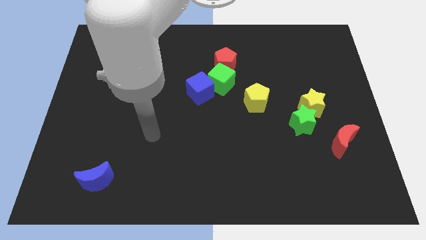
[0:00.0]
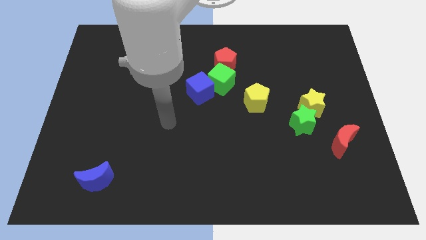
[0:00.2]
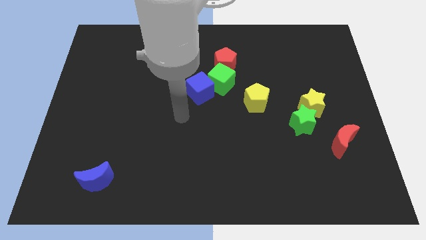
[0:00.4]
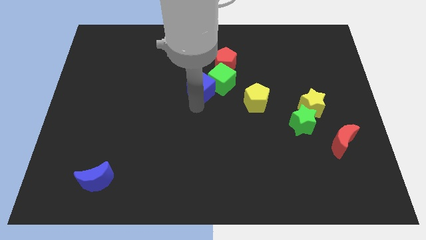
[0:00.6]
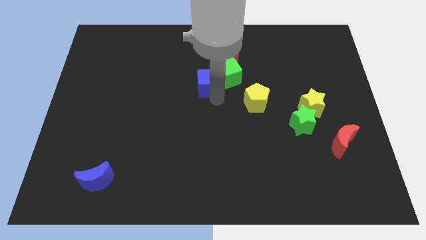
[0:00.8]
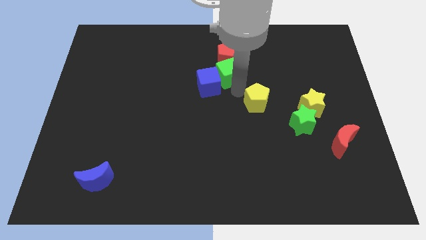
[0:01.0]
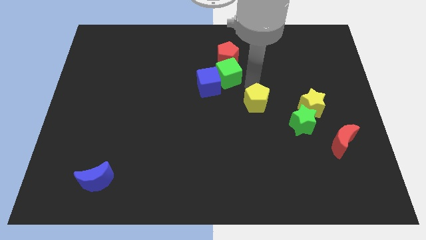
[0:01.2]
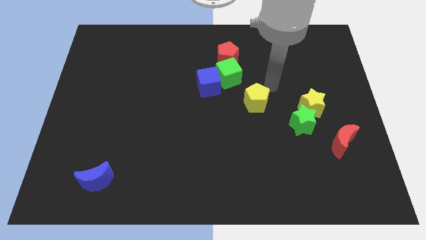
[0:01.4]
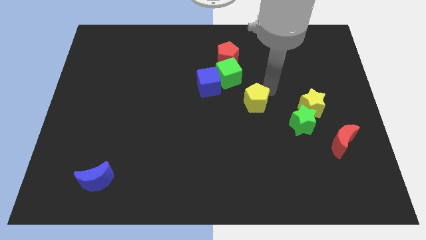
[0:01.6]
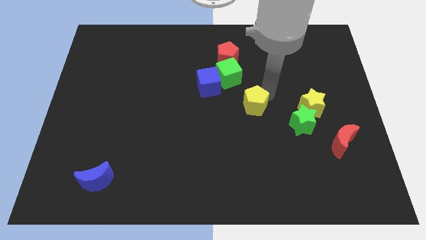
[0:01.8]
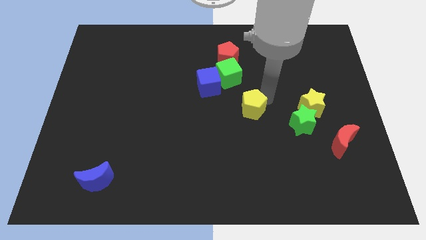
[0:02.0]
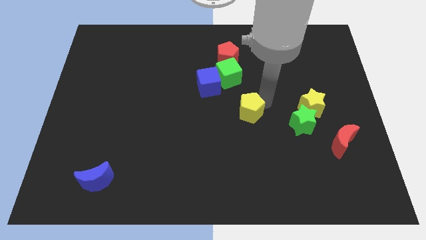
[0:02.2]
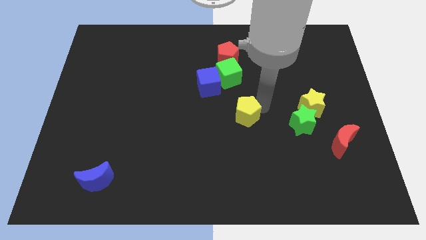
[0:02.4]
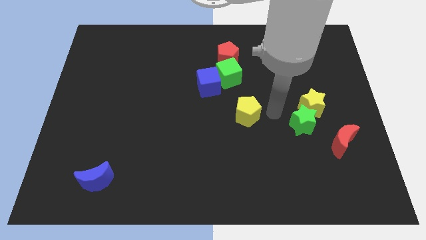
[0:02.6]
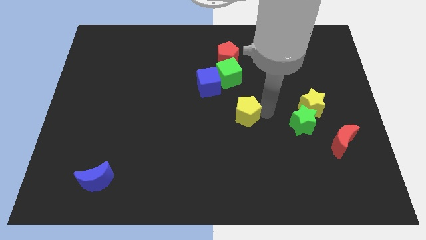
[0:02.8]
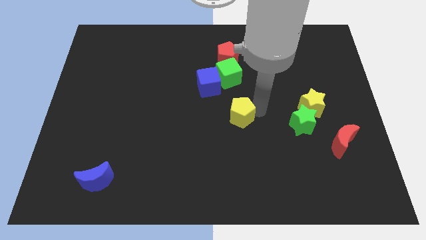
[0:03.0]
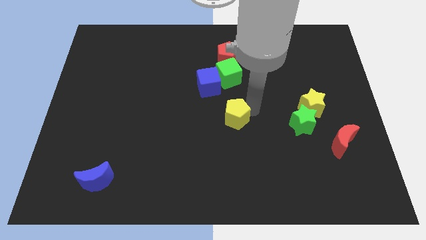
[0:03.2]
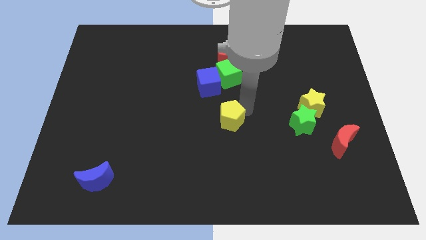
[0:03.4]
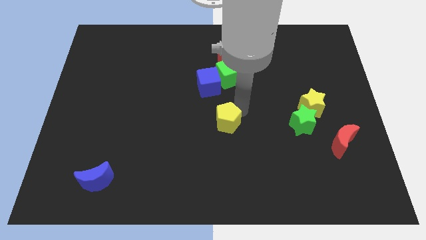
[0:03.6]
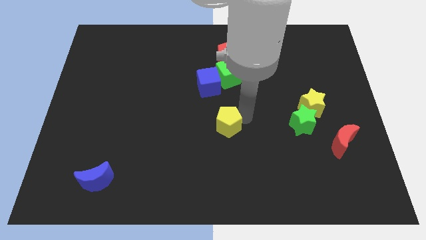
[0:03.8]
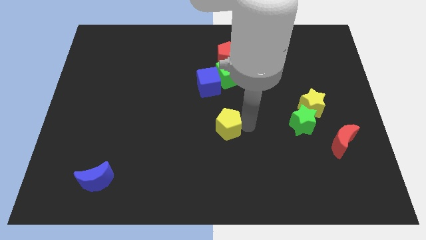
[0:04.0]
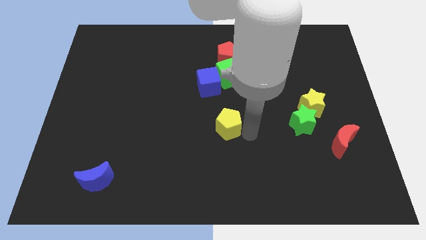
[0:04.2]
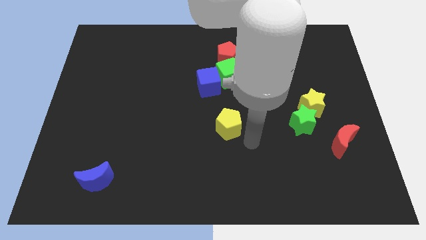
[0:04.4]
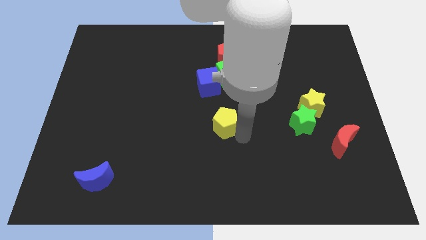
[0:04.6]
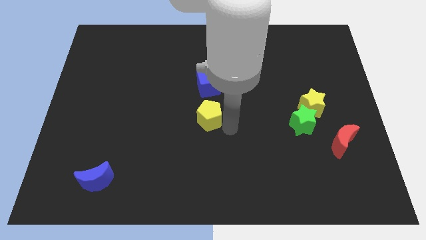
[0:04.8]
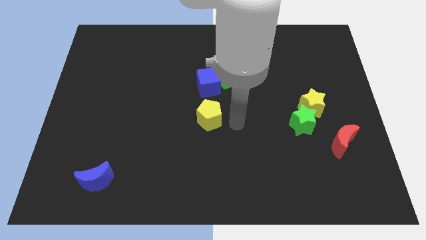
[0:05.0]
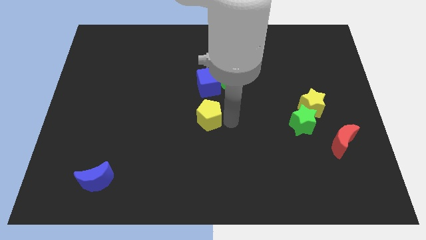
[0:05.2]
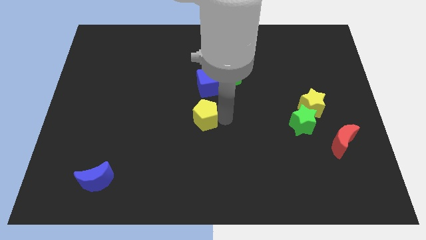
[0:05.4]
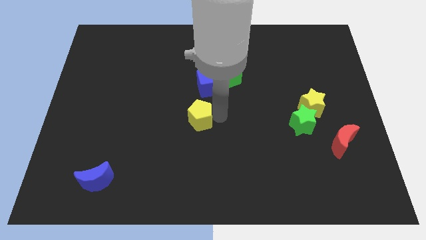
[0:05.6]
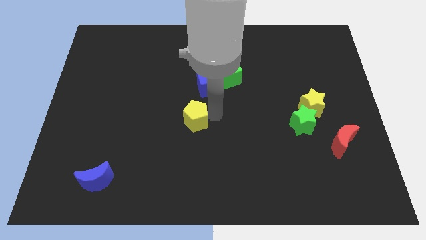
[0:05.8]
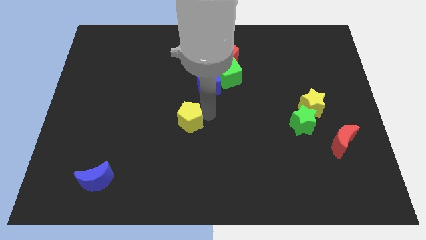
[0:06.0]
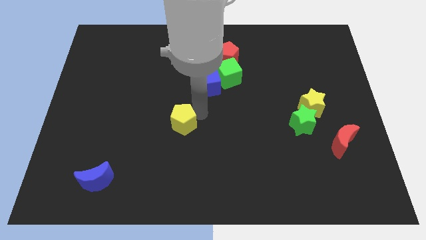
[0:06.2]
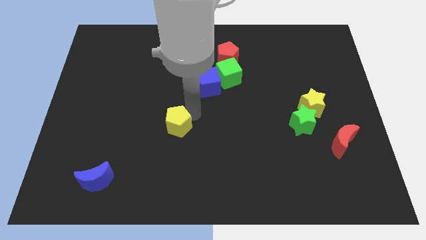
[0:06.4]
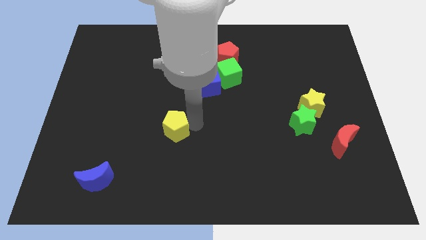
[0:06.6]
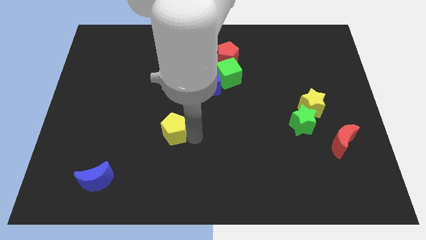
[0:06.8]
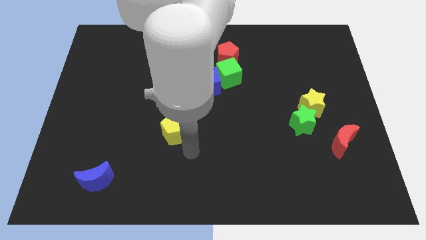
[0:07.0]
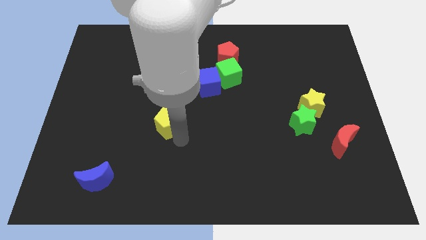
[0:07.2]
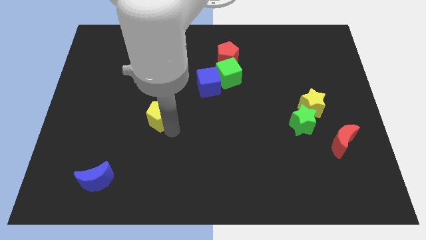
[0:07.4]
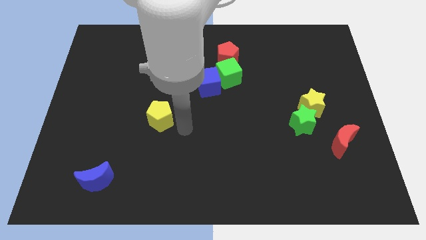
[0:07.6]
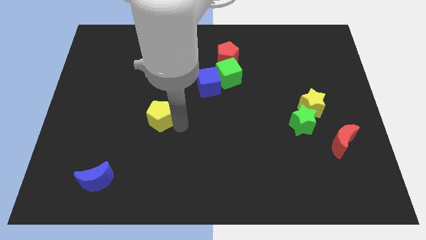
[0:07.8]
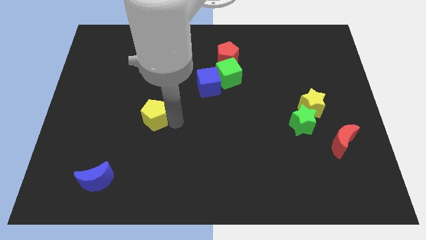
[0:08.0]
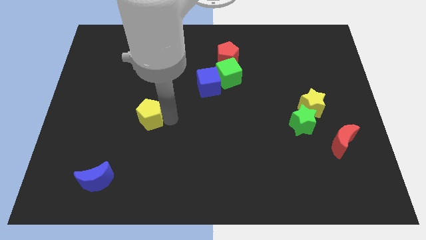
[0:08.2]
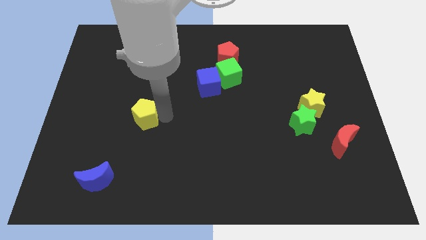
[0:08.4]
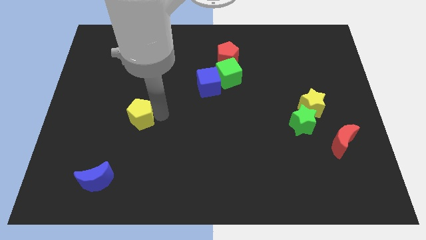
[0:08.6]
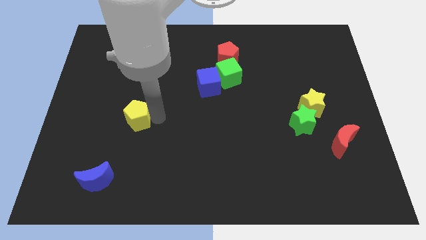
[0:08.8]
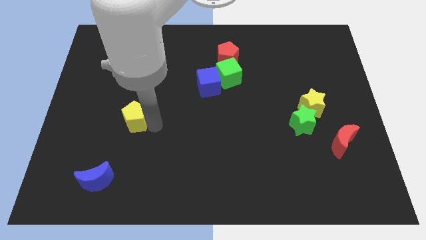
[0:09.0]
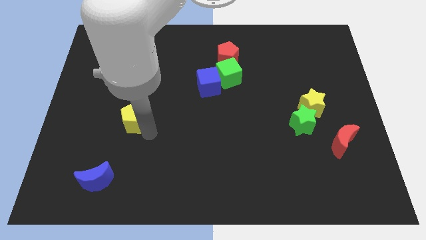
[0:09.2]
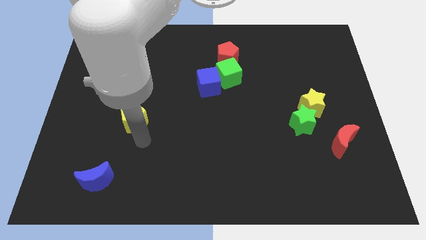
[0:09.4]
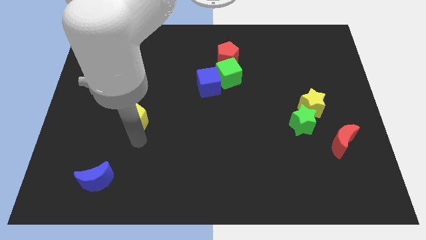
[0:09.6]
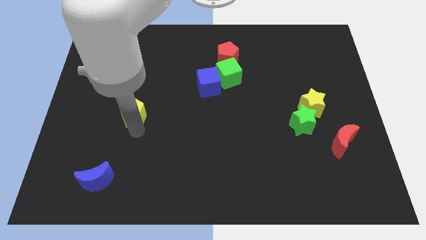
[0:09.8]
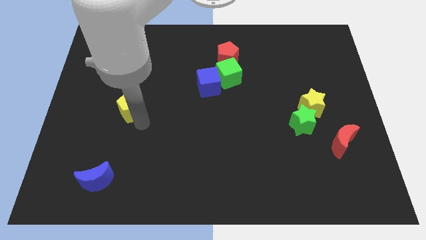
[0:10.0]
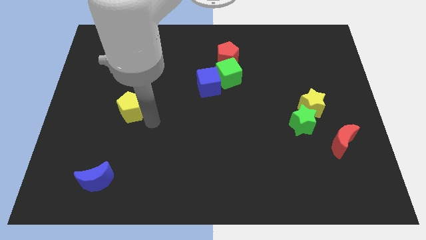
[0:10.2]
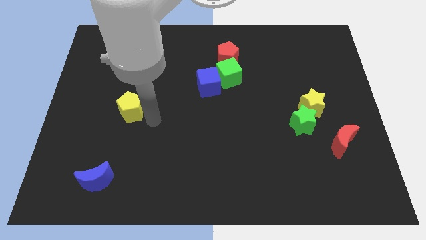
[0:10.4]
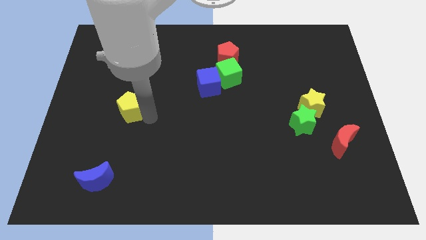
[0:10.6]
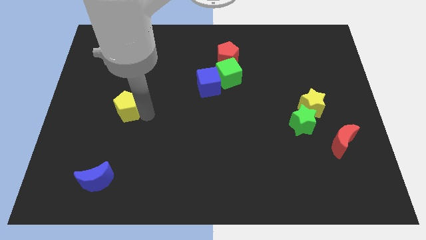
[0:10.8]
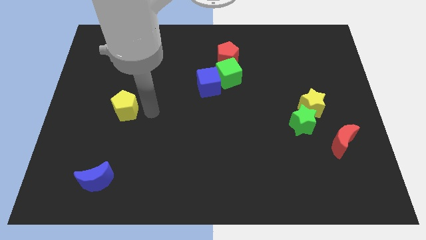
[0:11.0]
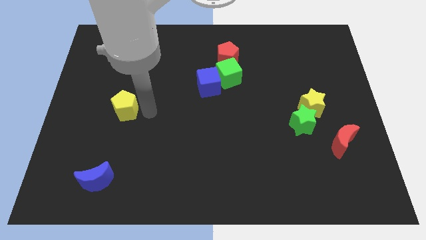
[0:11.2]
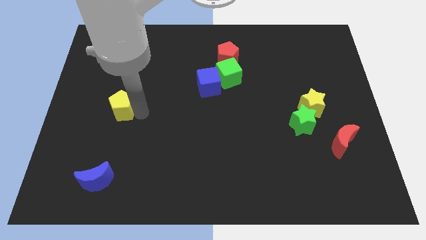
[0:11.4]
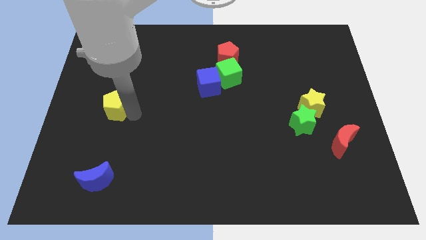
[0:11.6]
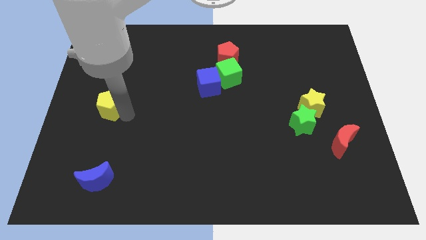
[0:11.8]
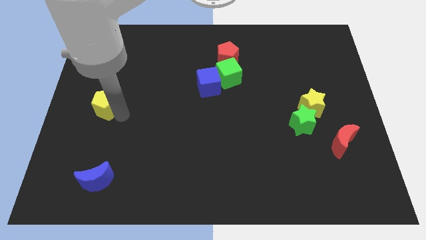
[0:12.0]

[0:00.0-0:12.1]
push the yellow pentagon to the left side of the board

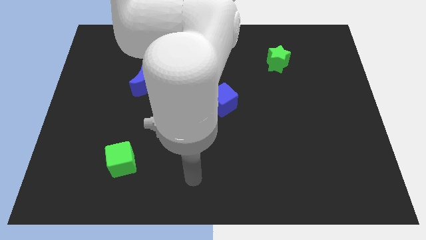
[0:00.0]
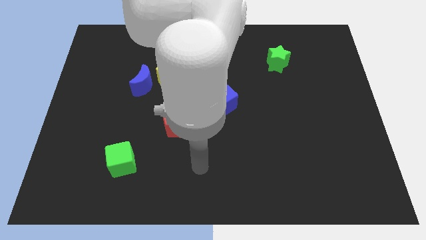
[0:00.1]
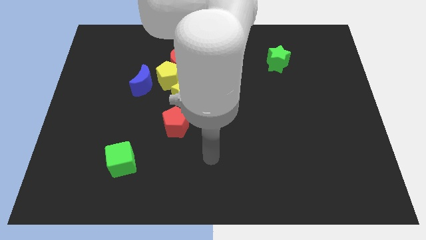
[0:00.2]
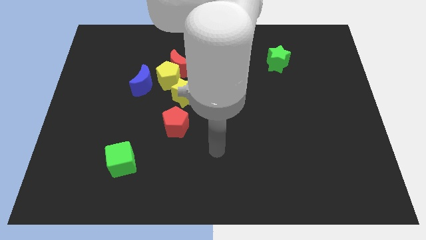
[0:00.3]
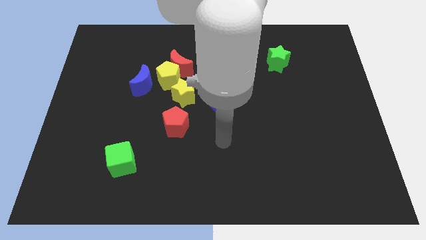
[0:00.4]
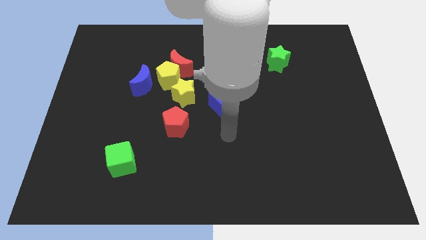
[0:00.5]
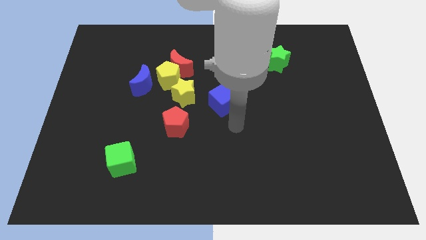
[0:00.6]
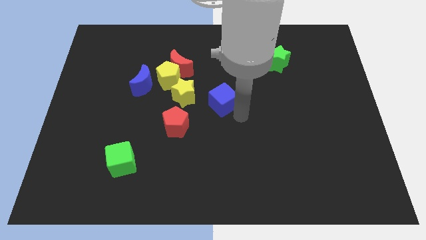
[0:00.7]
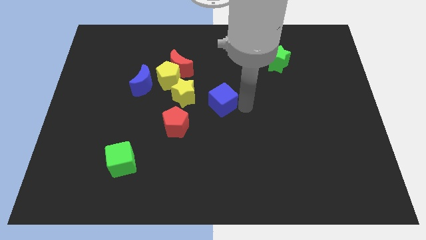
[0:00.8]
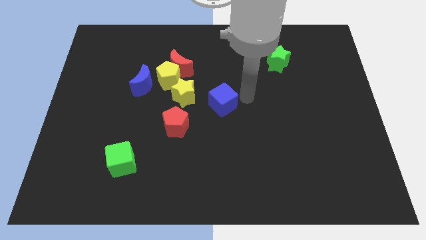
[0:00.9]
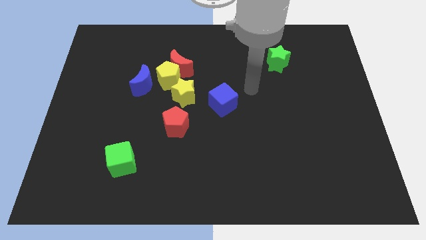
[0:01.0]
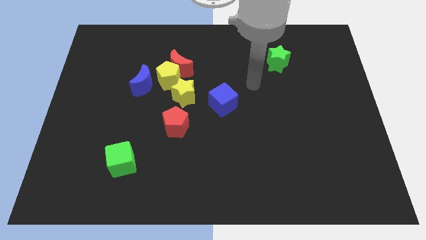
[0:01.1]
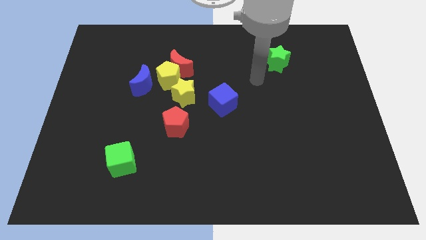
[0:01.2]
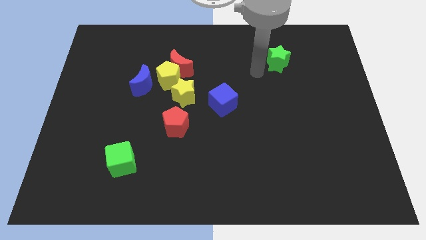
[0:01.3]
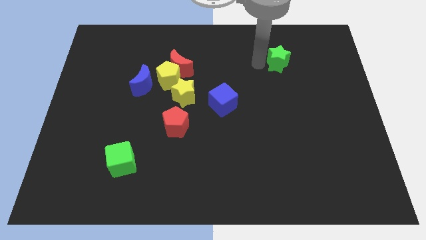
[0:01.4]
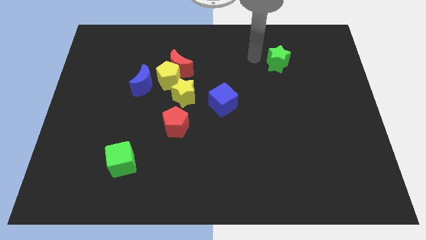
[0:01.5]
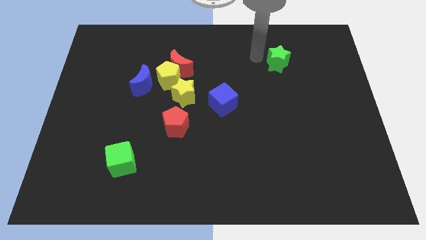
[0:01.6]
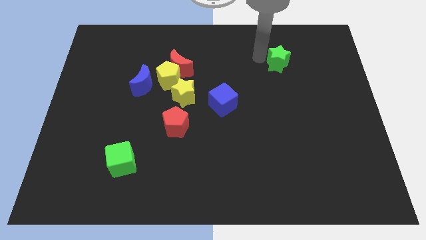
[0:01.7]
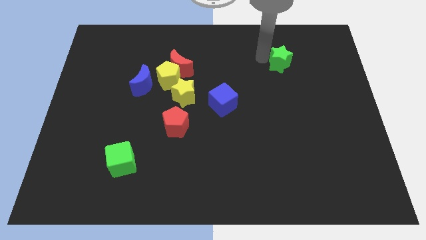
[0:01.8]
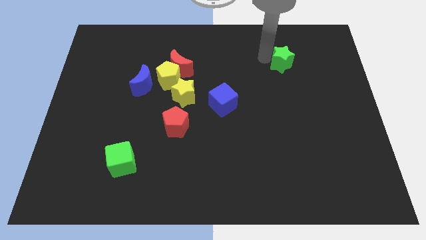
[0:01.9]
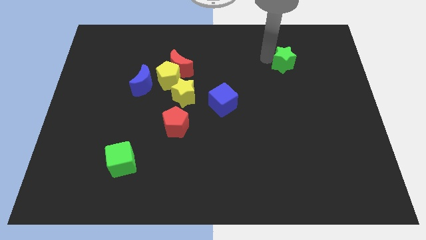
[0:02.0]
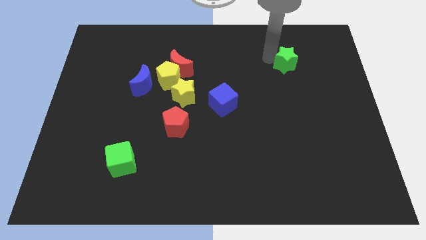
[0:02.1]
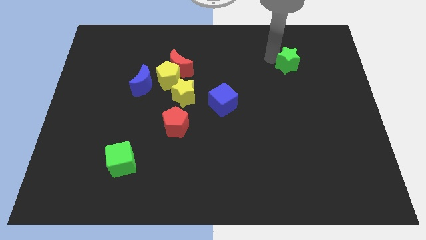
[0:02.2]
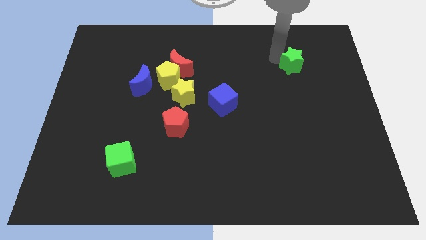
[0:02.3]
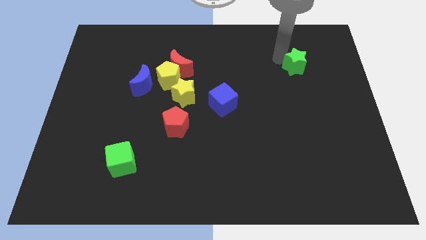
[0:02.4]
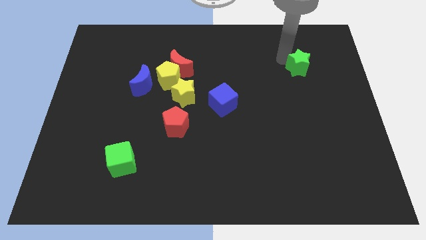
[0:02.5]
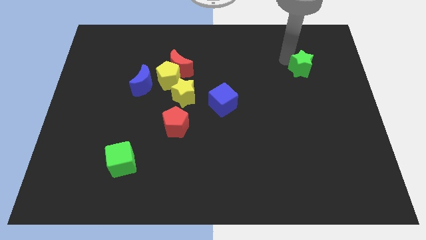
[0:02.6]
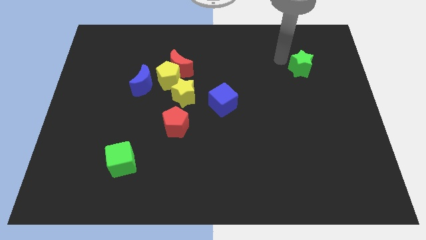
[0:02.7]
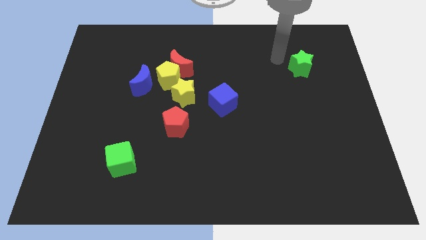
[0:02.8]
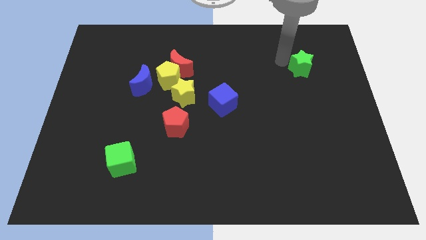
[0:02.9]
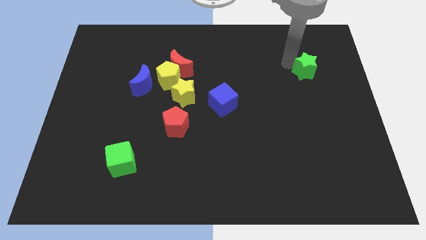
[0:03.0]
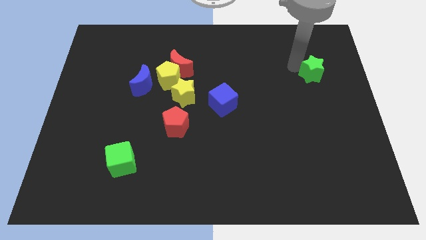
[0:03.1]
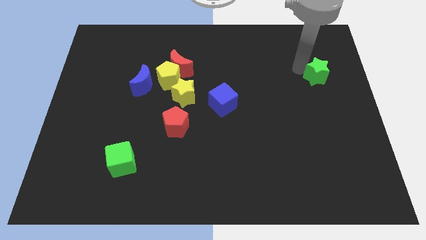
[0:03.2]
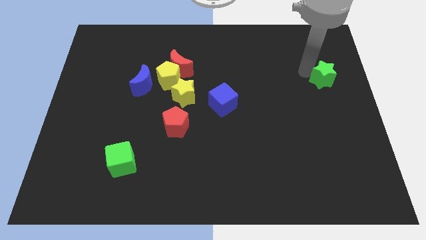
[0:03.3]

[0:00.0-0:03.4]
push the green star to the right side of the board
